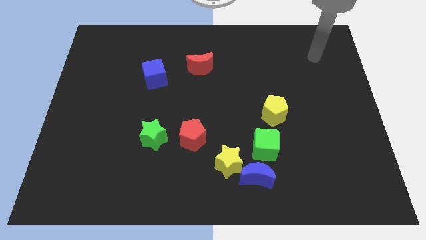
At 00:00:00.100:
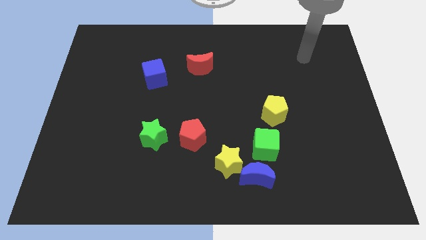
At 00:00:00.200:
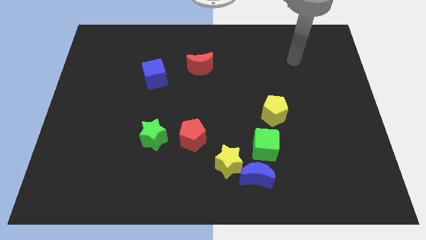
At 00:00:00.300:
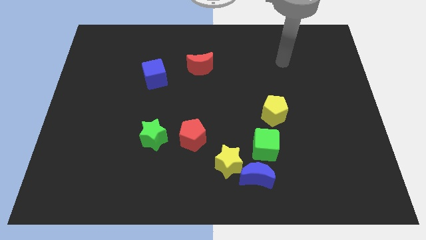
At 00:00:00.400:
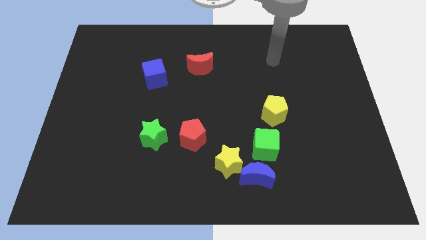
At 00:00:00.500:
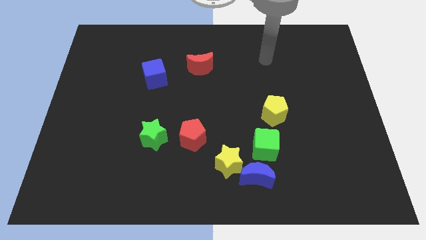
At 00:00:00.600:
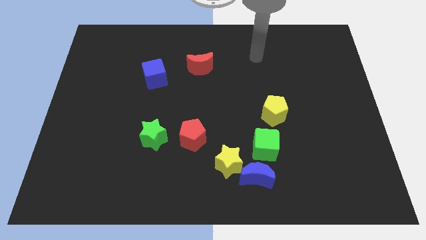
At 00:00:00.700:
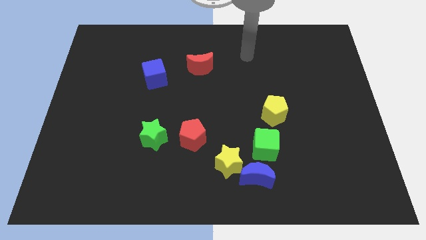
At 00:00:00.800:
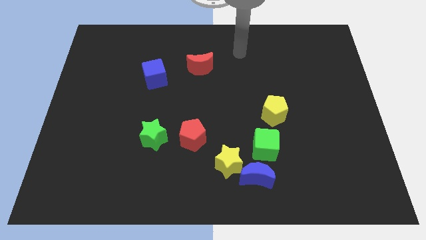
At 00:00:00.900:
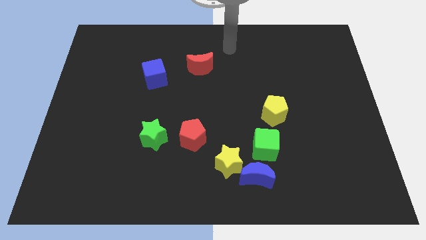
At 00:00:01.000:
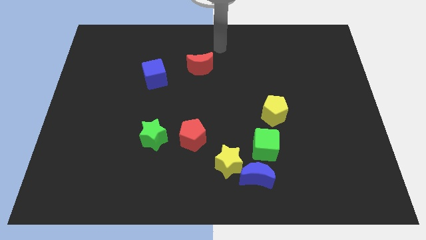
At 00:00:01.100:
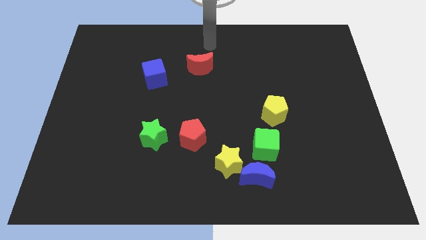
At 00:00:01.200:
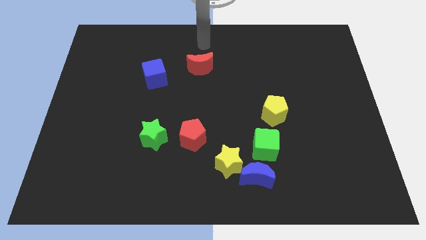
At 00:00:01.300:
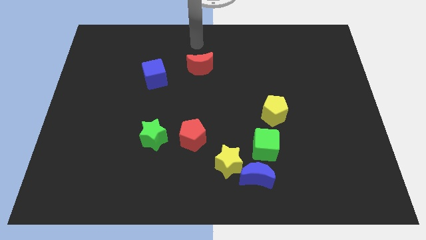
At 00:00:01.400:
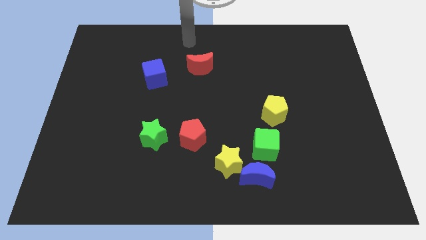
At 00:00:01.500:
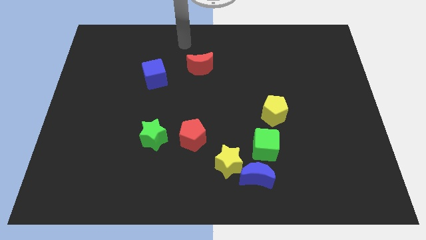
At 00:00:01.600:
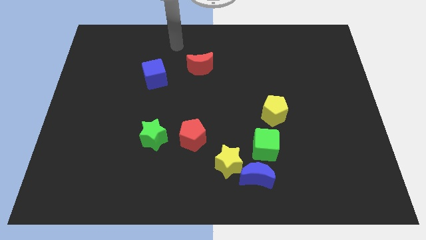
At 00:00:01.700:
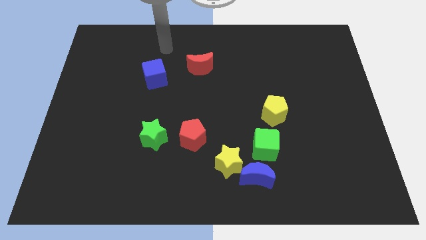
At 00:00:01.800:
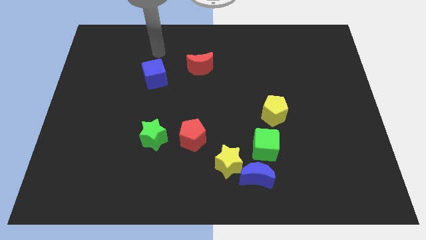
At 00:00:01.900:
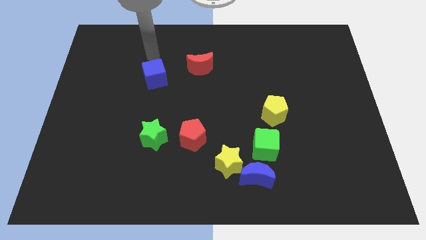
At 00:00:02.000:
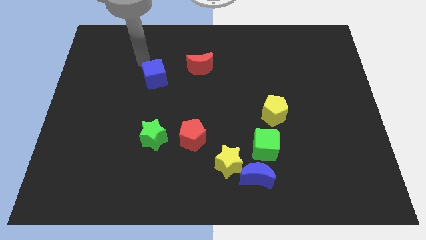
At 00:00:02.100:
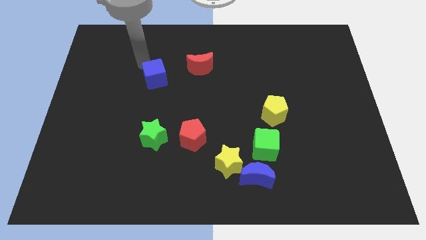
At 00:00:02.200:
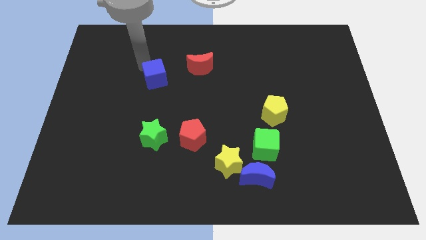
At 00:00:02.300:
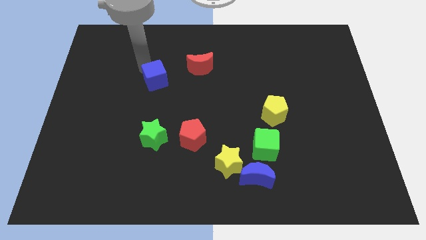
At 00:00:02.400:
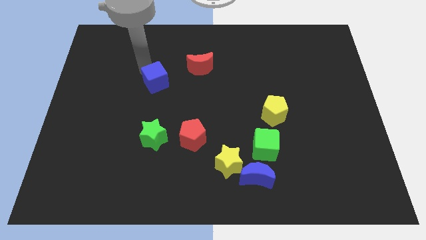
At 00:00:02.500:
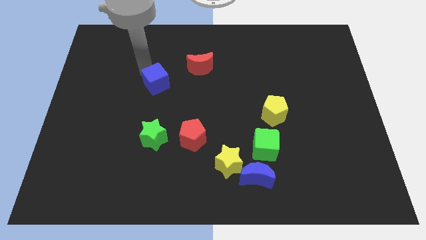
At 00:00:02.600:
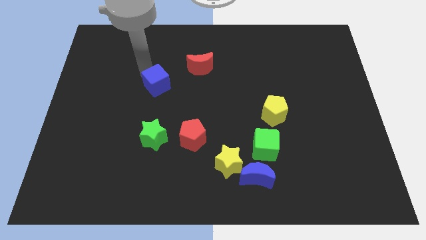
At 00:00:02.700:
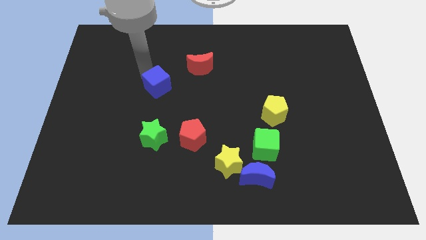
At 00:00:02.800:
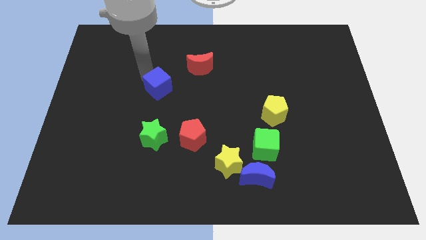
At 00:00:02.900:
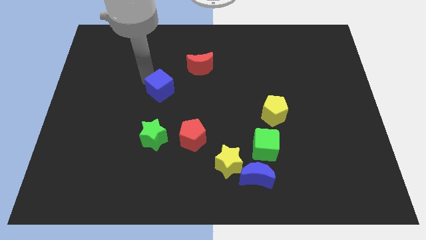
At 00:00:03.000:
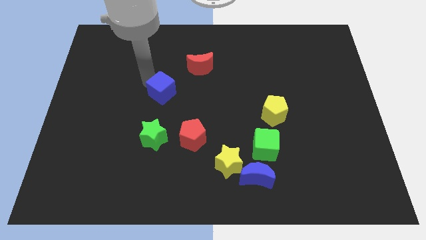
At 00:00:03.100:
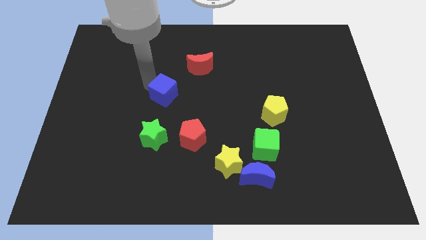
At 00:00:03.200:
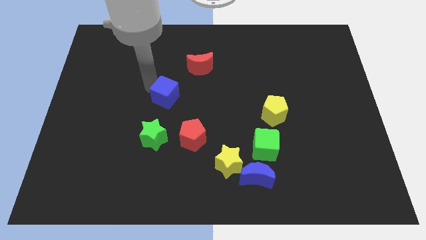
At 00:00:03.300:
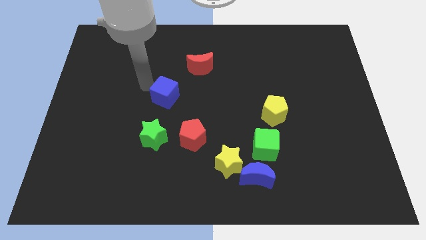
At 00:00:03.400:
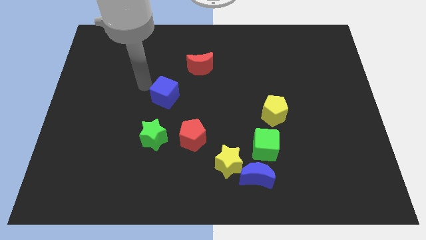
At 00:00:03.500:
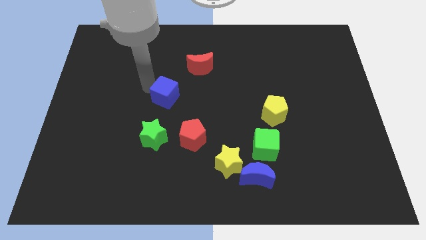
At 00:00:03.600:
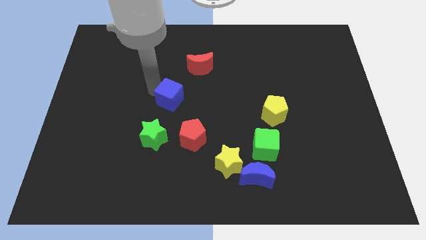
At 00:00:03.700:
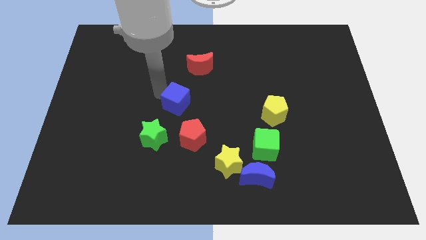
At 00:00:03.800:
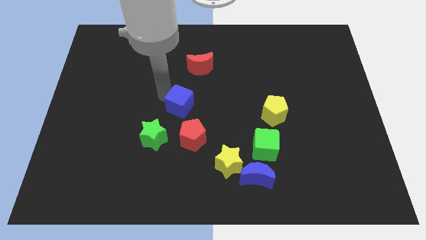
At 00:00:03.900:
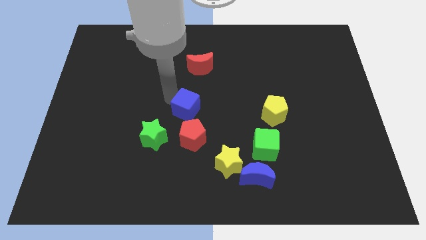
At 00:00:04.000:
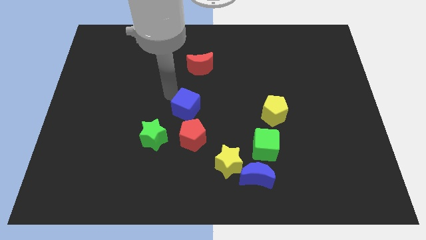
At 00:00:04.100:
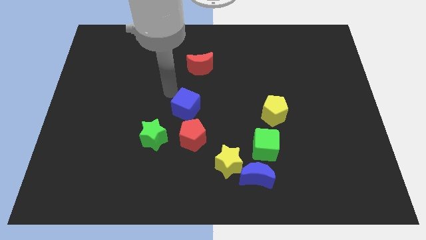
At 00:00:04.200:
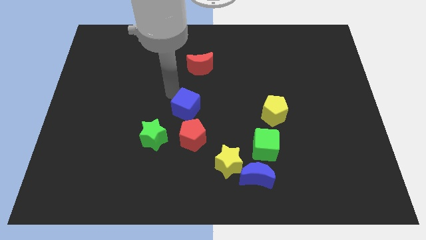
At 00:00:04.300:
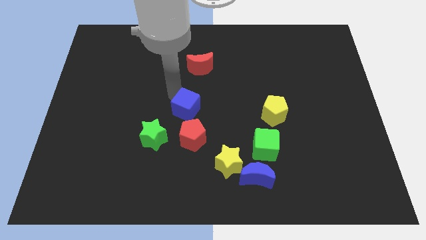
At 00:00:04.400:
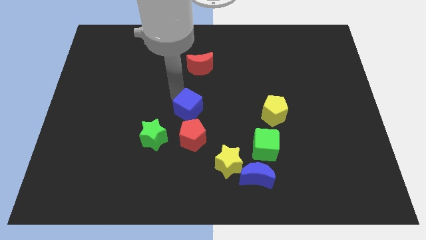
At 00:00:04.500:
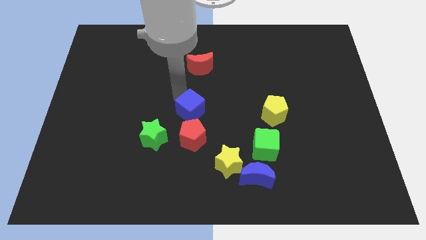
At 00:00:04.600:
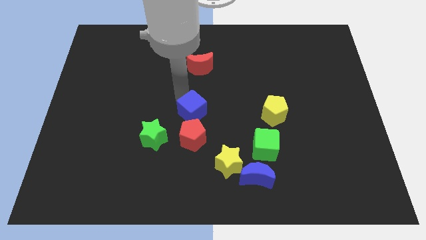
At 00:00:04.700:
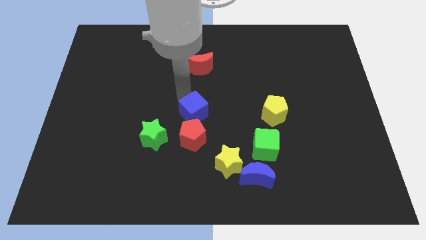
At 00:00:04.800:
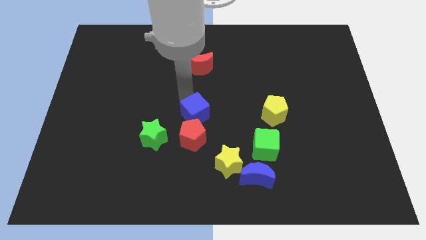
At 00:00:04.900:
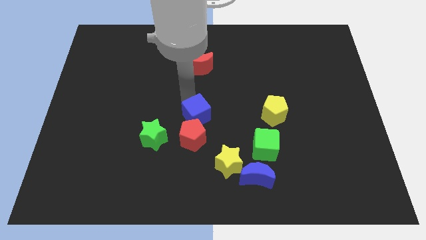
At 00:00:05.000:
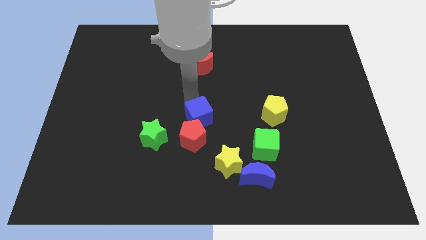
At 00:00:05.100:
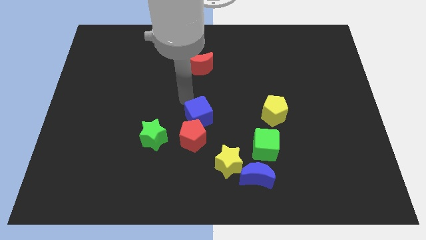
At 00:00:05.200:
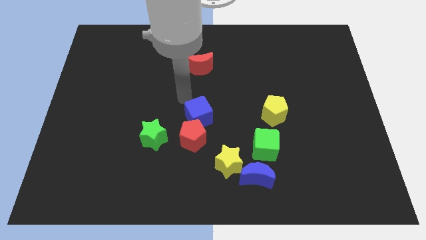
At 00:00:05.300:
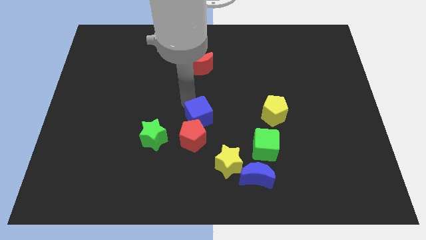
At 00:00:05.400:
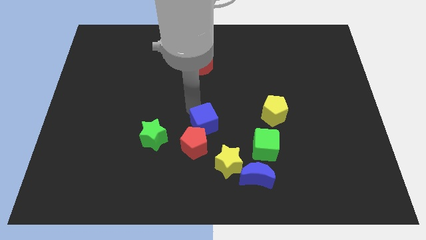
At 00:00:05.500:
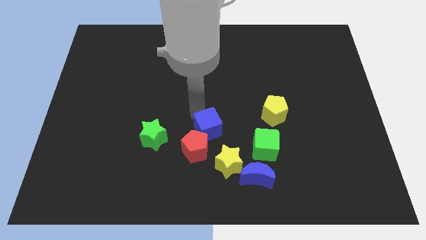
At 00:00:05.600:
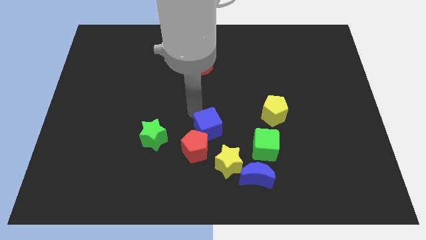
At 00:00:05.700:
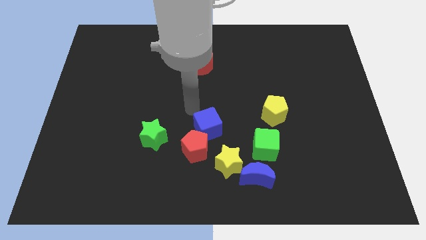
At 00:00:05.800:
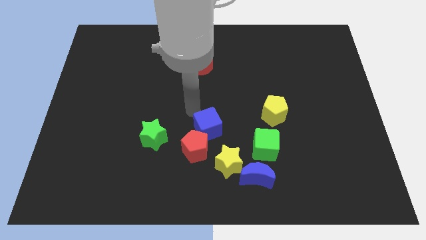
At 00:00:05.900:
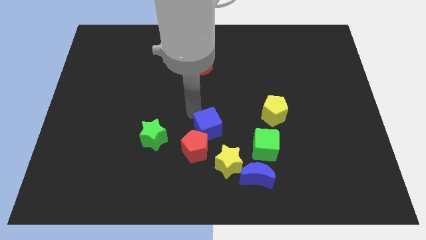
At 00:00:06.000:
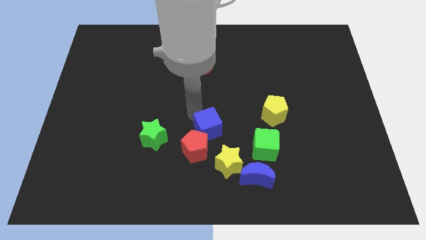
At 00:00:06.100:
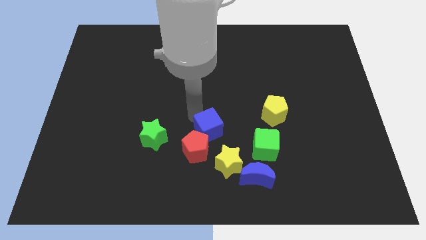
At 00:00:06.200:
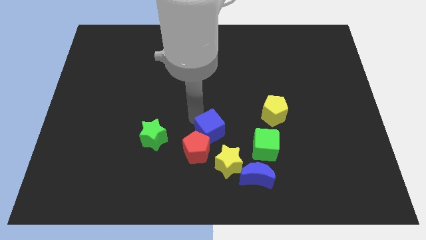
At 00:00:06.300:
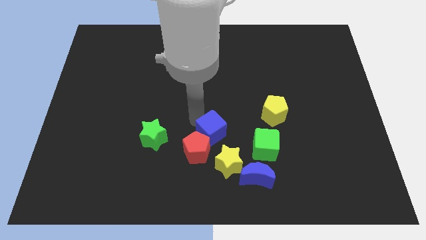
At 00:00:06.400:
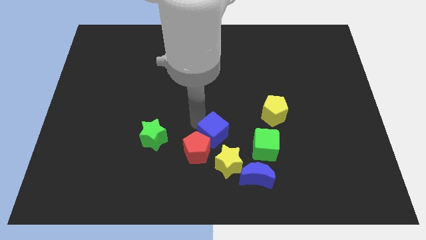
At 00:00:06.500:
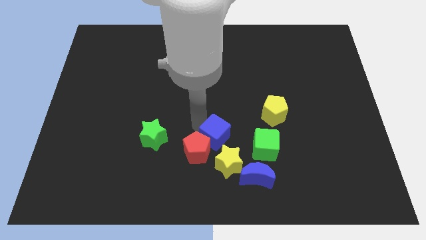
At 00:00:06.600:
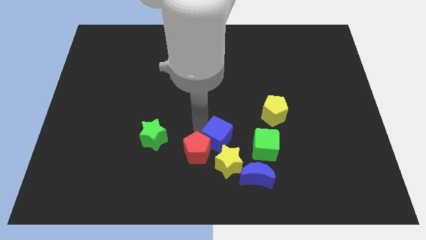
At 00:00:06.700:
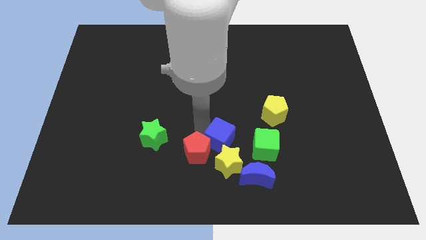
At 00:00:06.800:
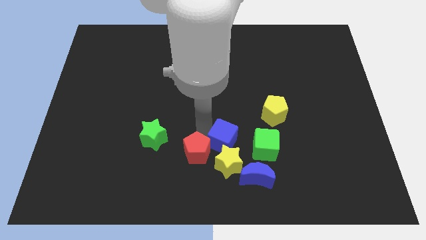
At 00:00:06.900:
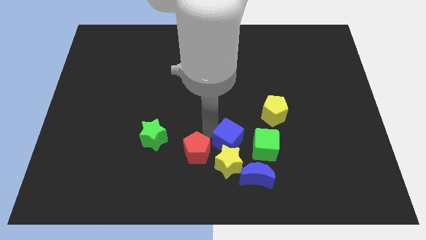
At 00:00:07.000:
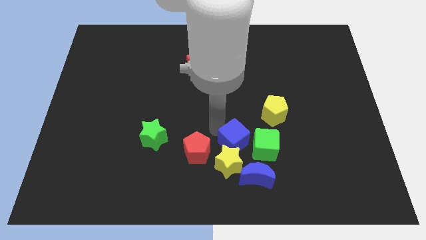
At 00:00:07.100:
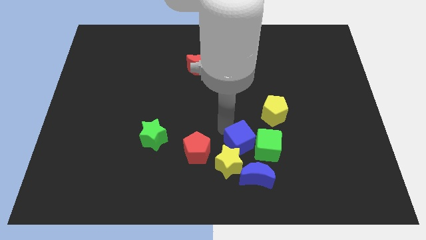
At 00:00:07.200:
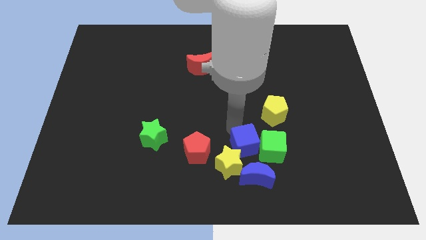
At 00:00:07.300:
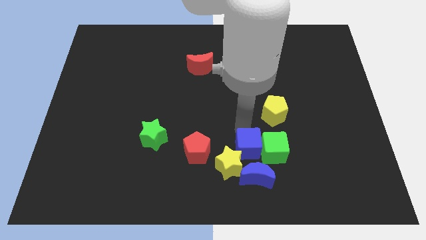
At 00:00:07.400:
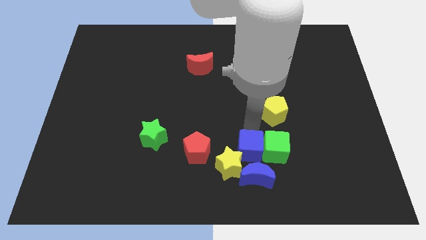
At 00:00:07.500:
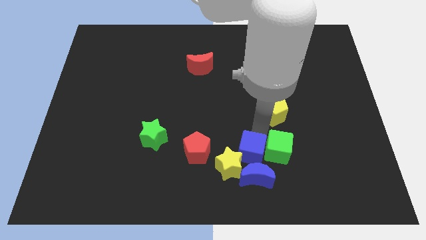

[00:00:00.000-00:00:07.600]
put the blue cube close to the blue moon
